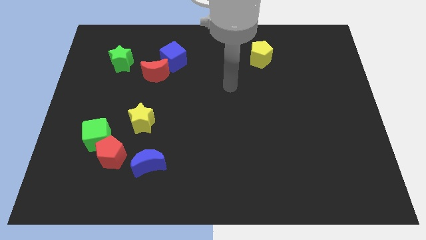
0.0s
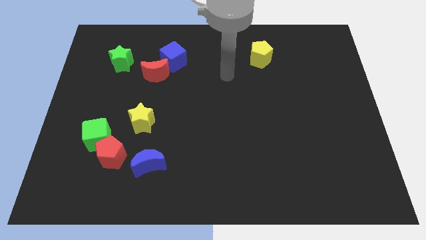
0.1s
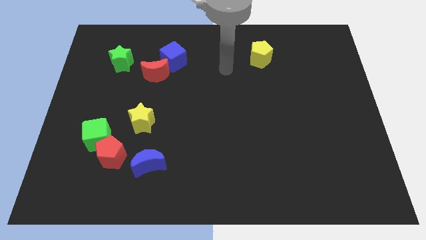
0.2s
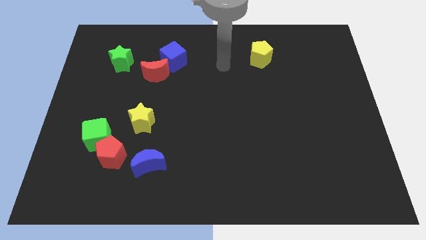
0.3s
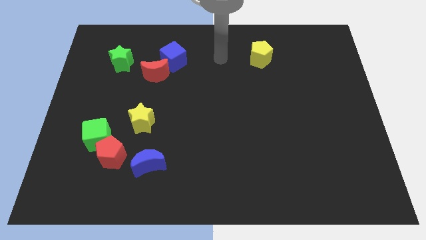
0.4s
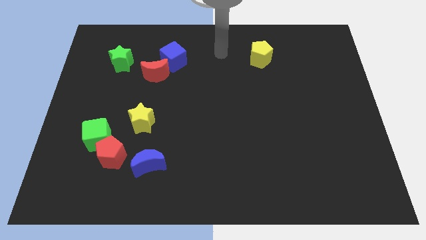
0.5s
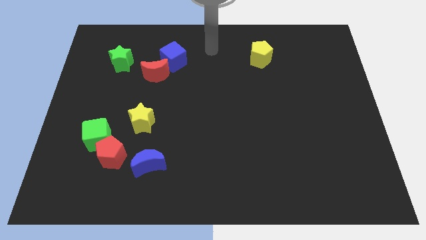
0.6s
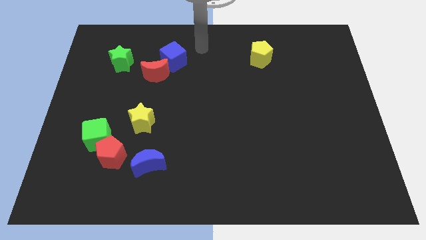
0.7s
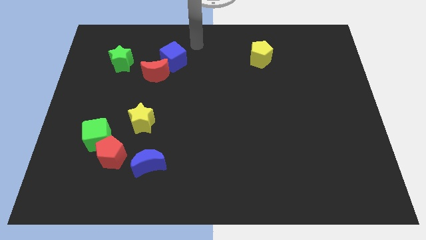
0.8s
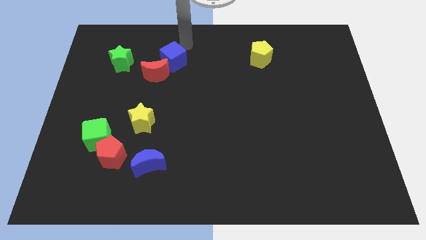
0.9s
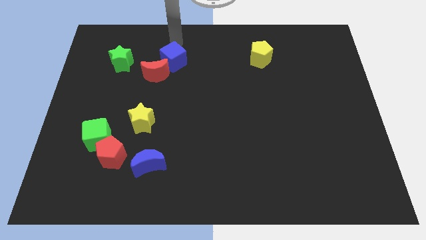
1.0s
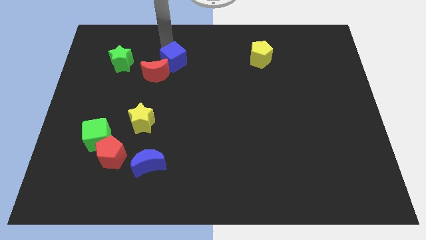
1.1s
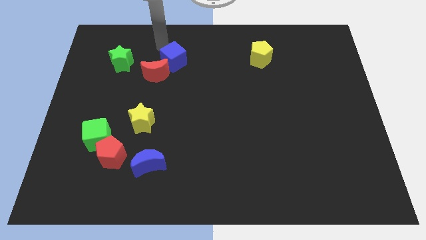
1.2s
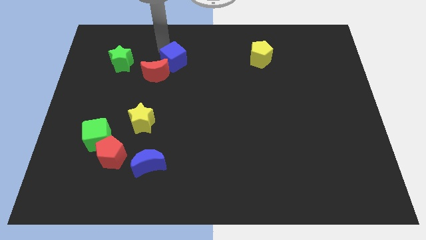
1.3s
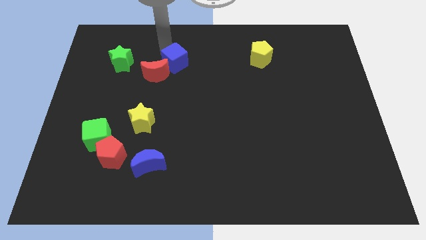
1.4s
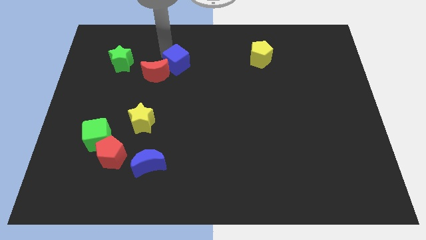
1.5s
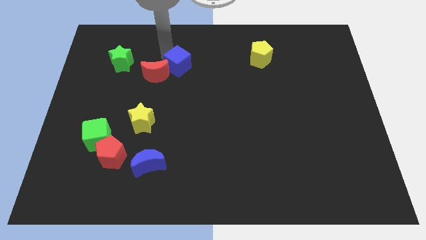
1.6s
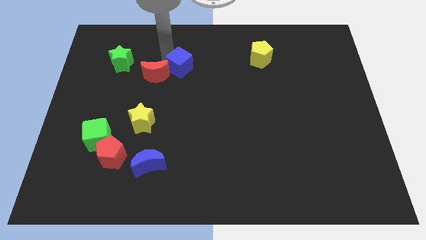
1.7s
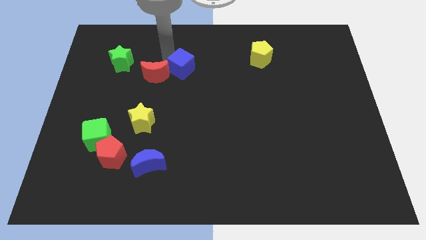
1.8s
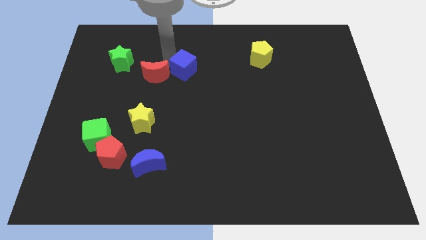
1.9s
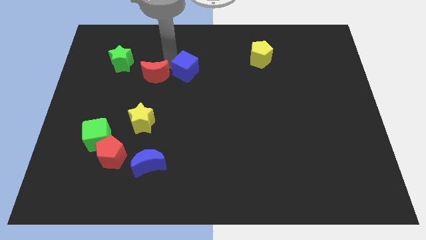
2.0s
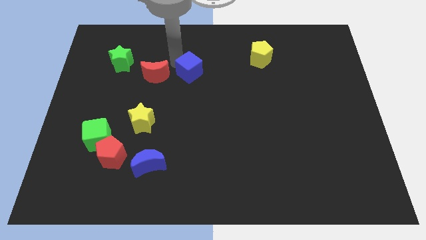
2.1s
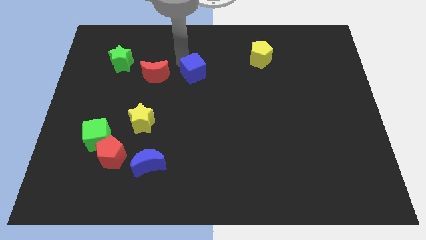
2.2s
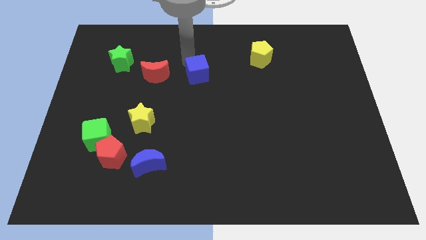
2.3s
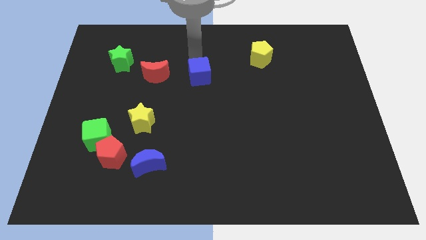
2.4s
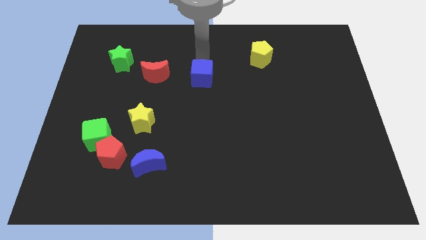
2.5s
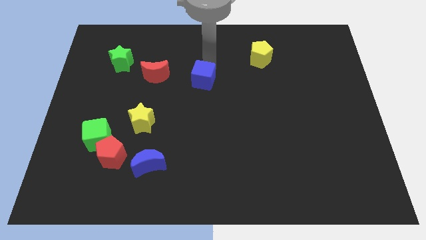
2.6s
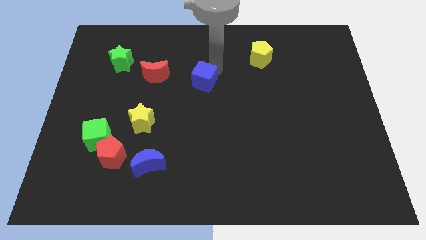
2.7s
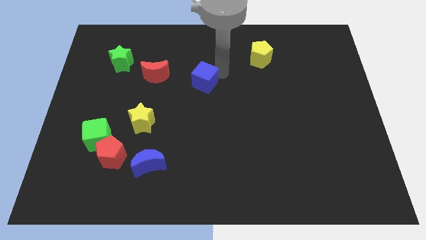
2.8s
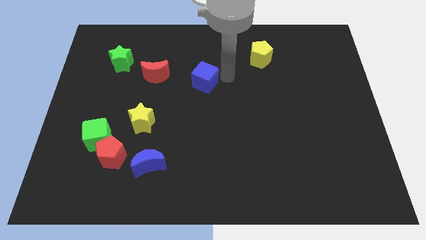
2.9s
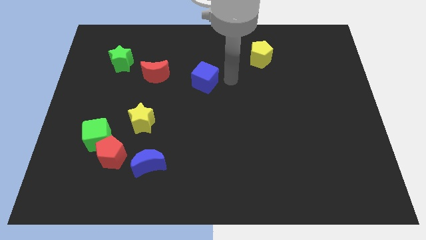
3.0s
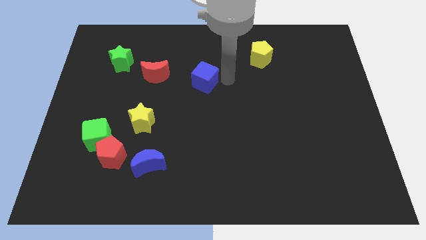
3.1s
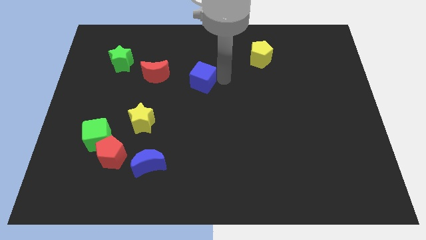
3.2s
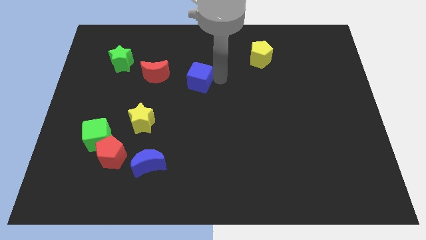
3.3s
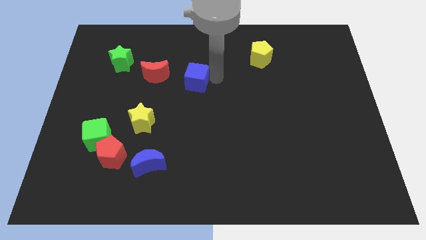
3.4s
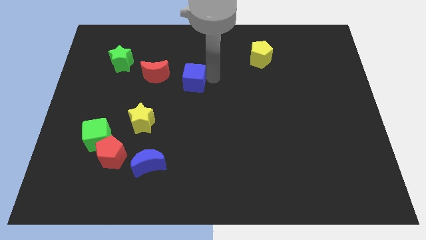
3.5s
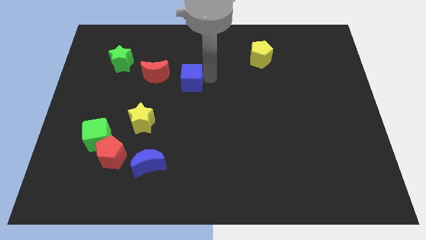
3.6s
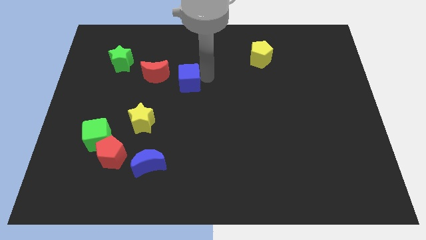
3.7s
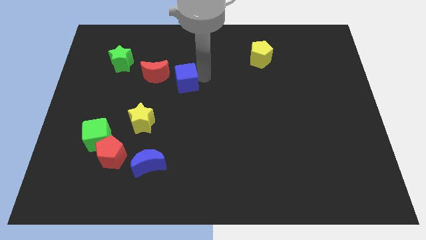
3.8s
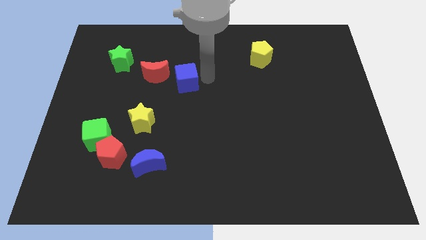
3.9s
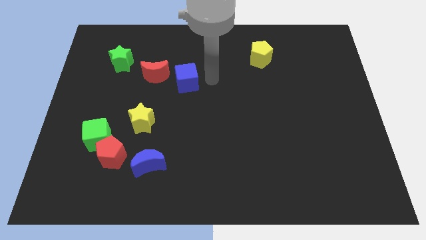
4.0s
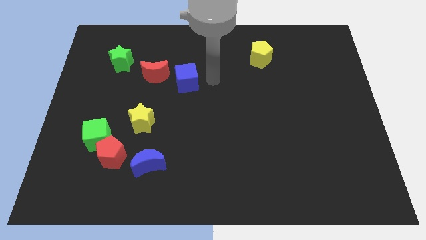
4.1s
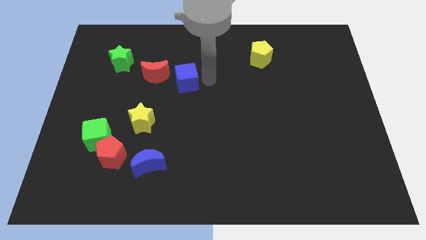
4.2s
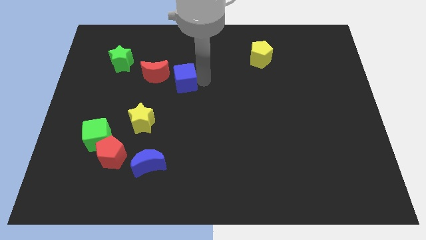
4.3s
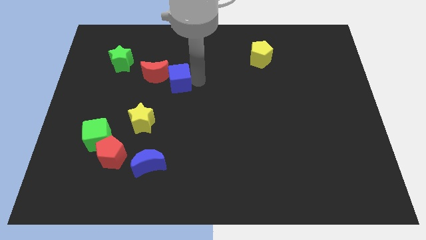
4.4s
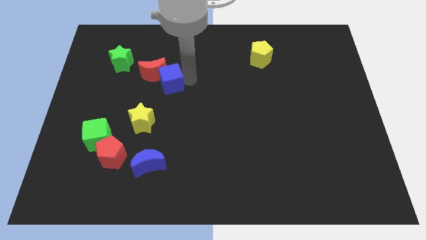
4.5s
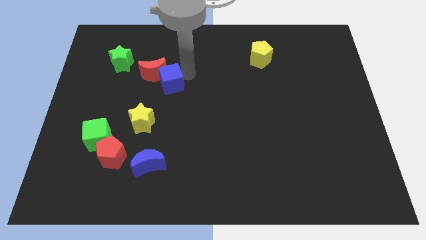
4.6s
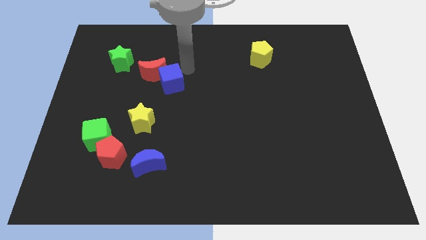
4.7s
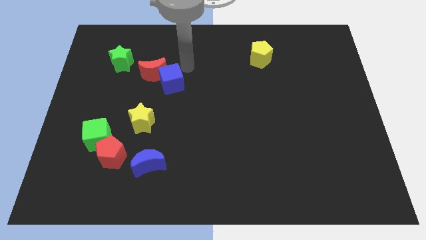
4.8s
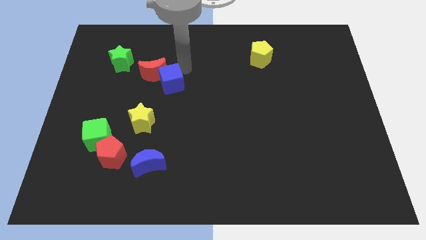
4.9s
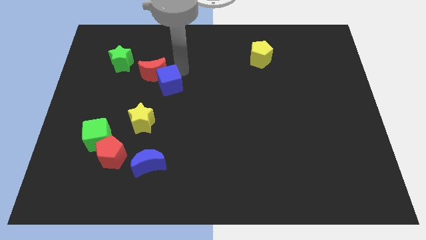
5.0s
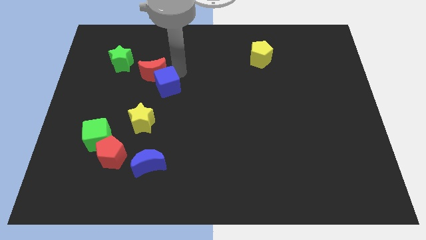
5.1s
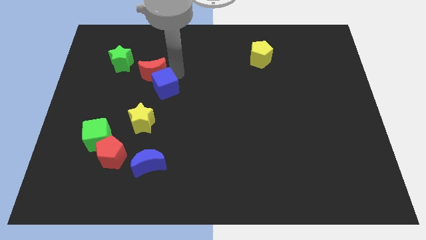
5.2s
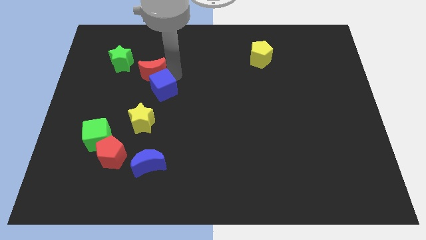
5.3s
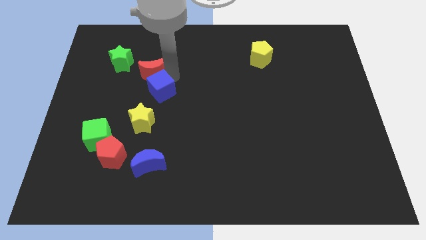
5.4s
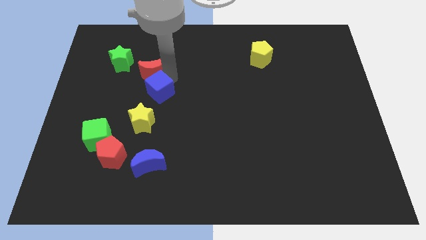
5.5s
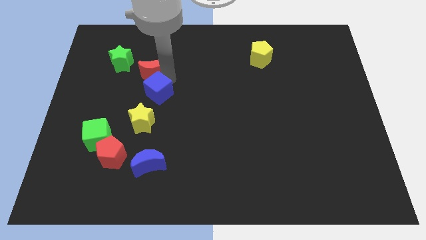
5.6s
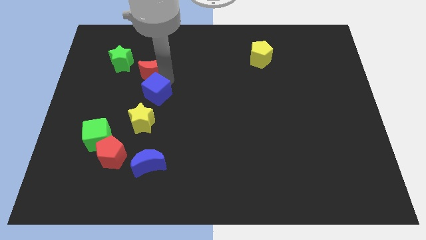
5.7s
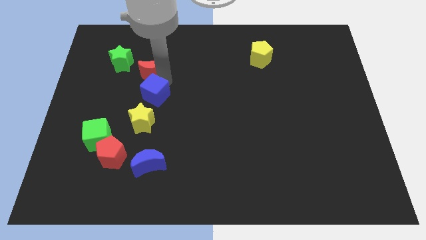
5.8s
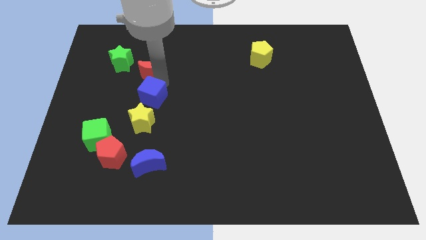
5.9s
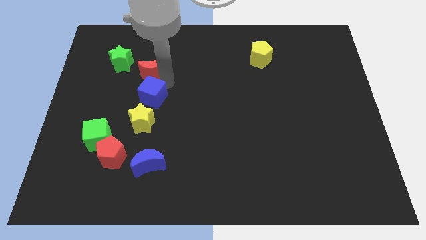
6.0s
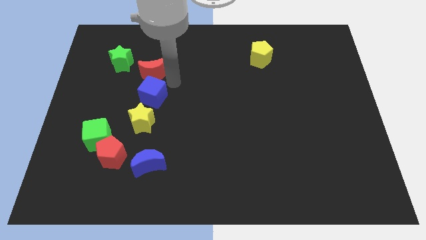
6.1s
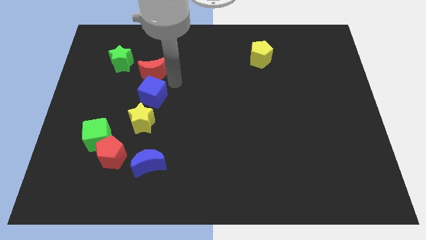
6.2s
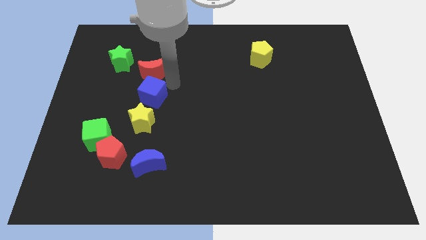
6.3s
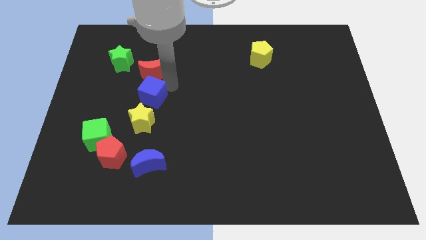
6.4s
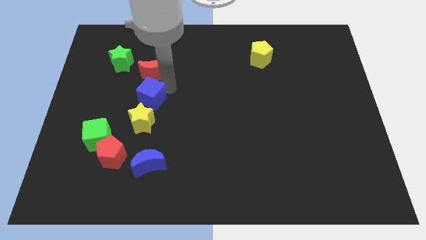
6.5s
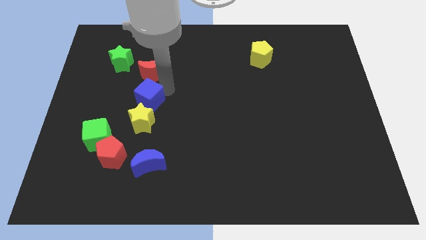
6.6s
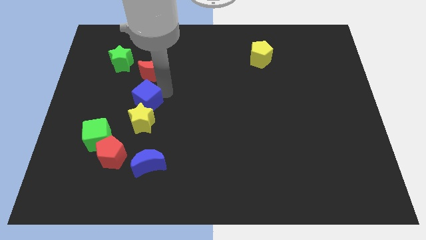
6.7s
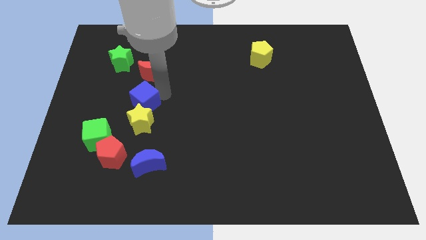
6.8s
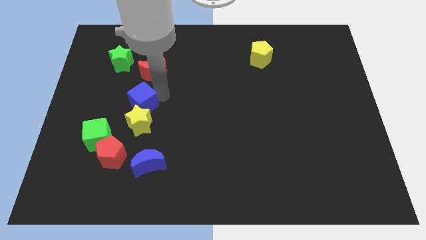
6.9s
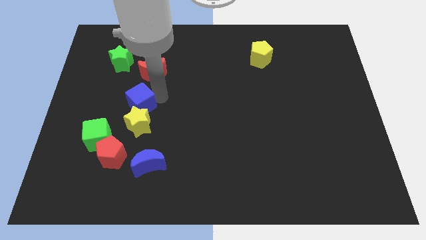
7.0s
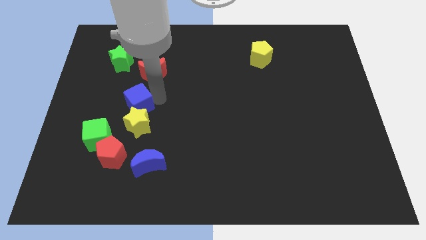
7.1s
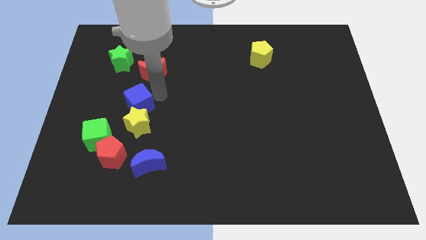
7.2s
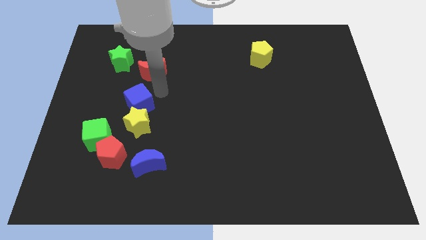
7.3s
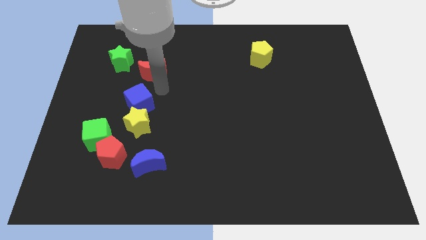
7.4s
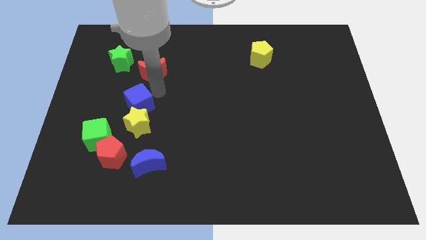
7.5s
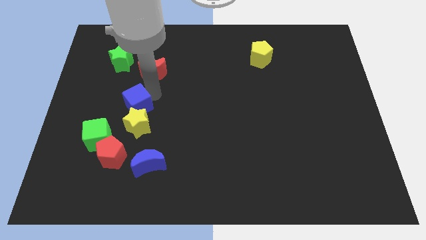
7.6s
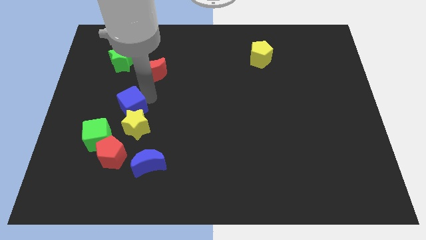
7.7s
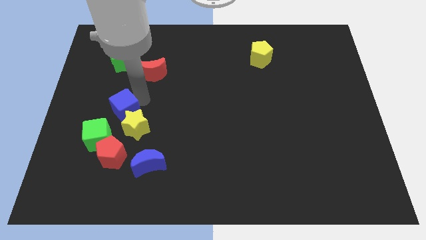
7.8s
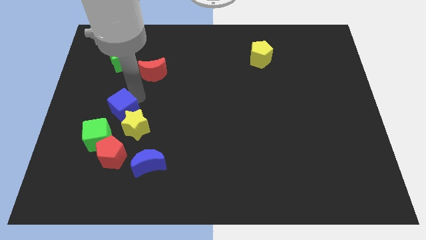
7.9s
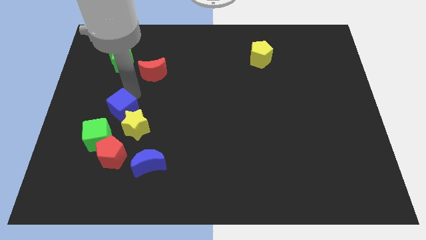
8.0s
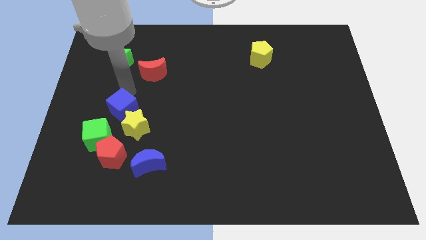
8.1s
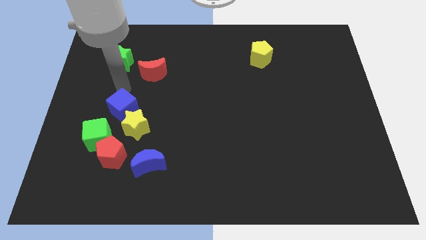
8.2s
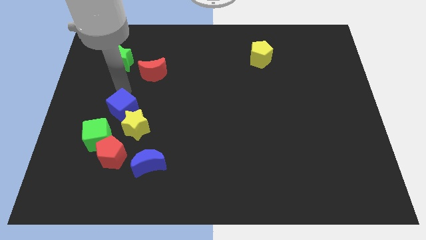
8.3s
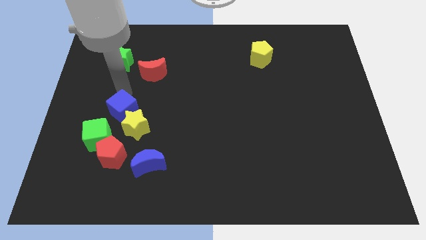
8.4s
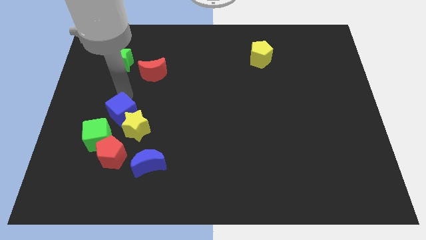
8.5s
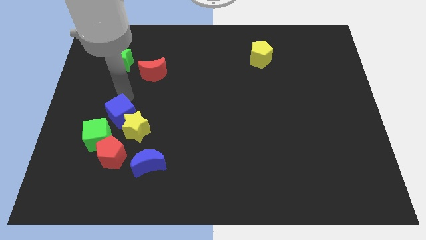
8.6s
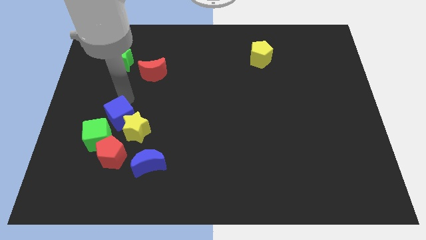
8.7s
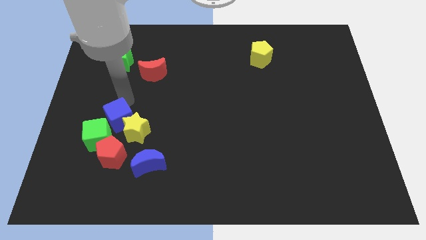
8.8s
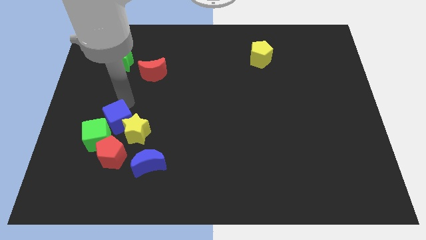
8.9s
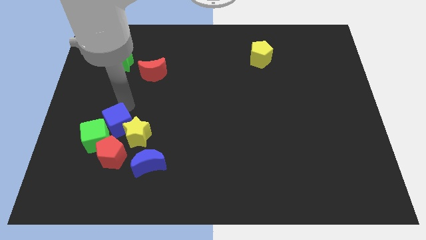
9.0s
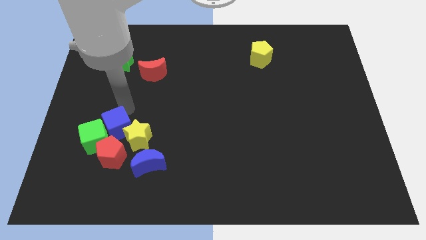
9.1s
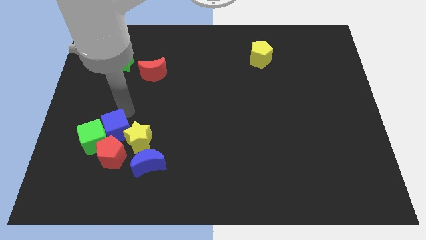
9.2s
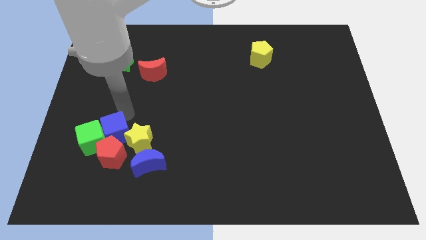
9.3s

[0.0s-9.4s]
slide the blue cube close to the red pentagon
